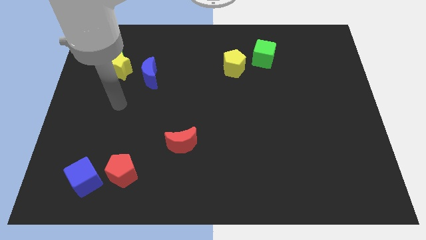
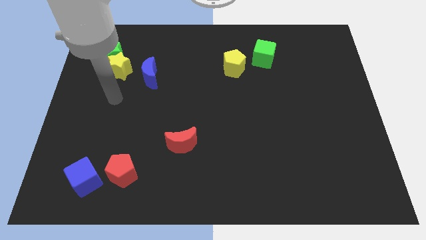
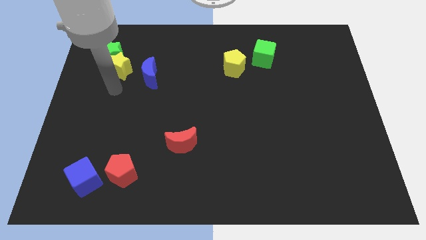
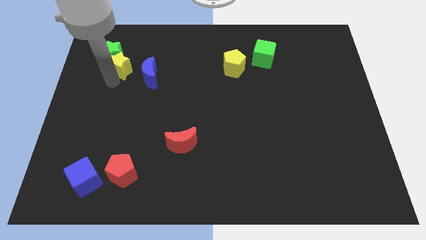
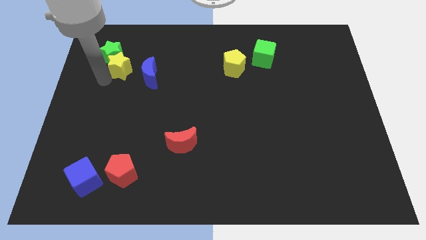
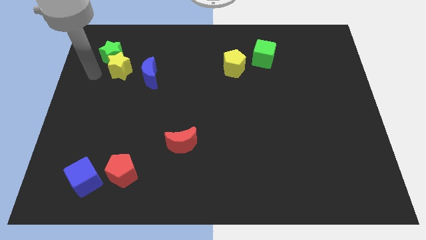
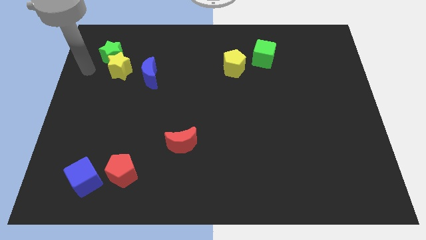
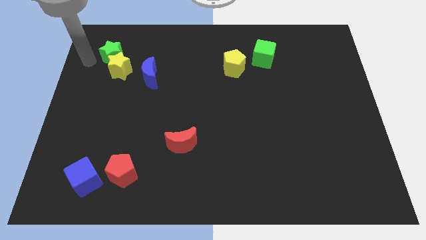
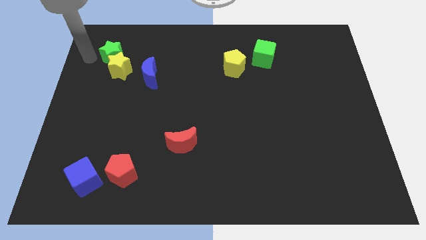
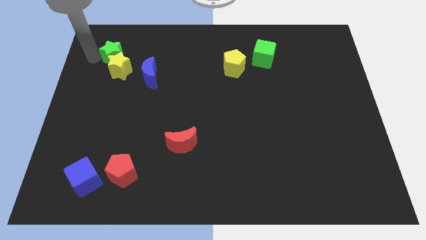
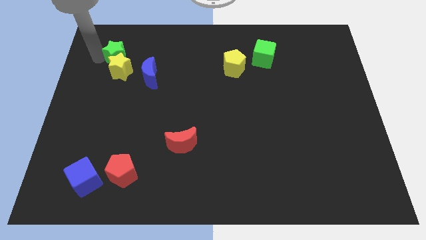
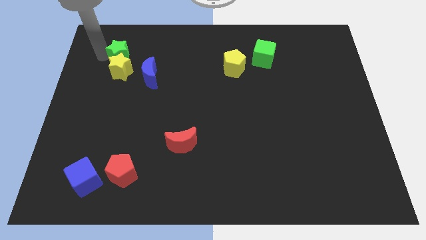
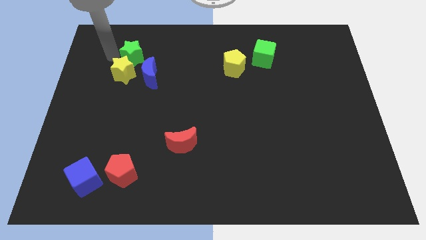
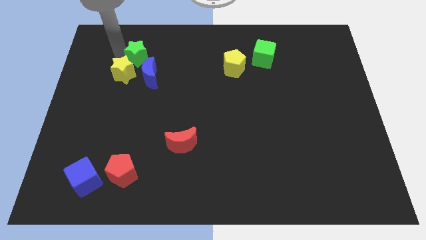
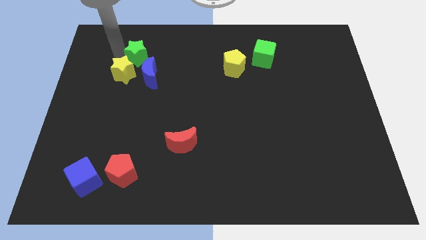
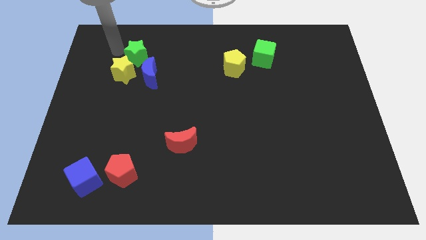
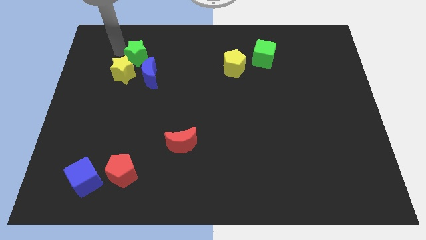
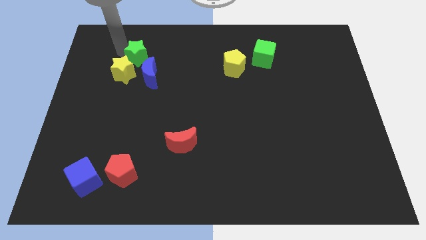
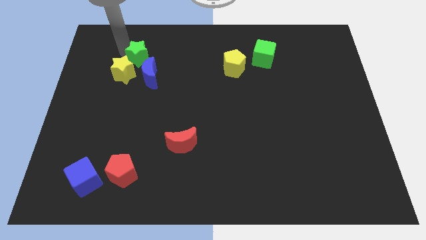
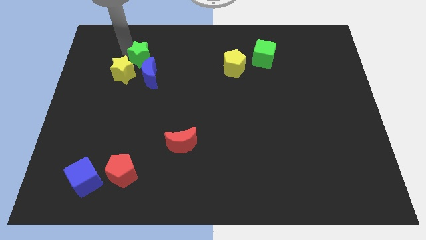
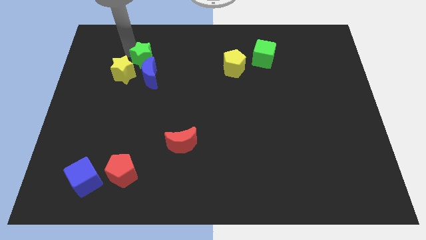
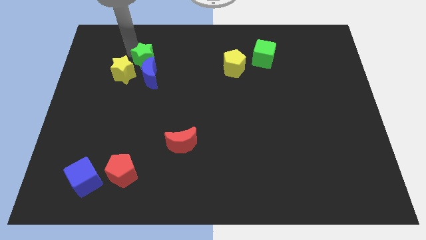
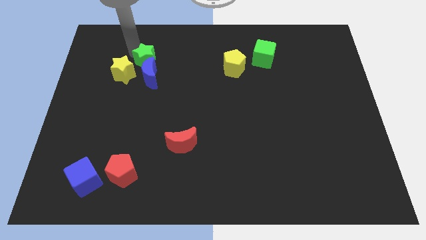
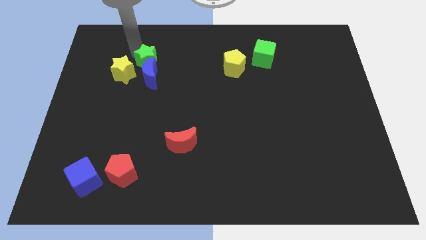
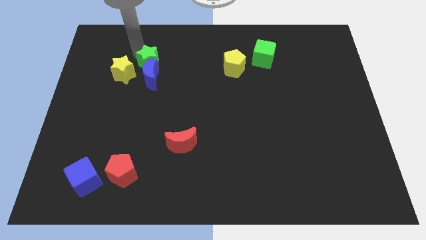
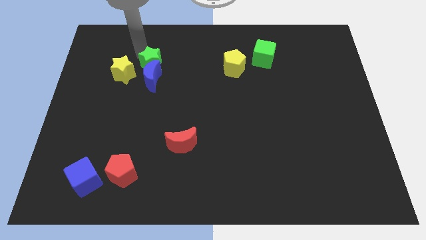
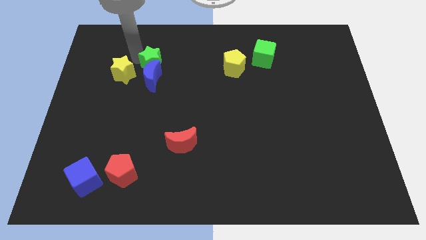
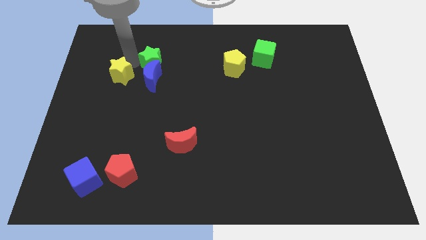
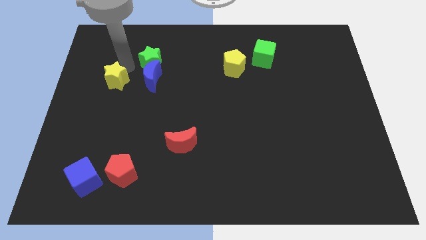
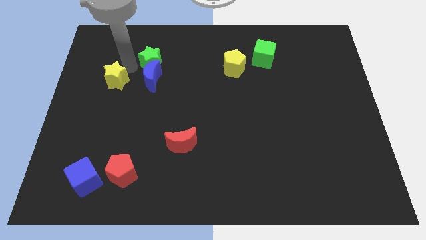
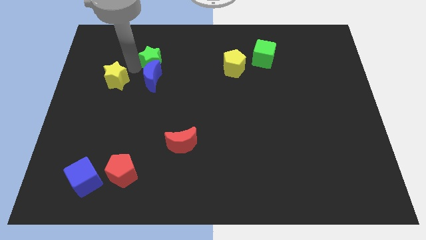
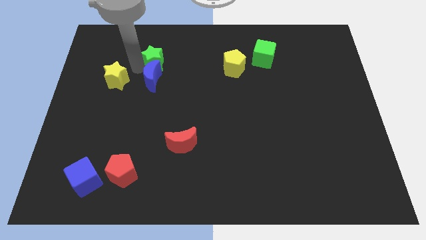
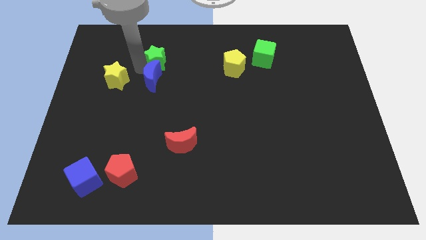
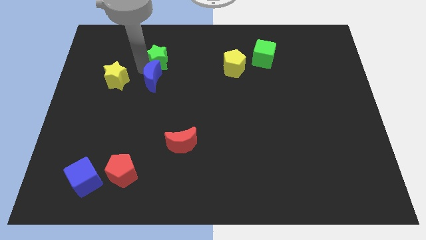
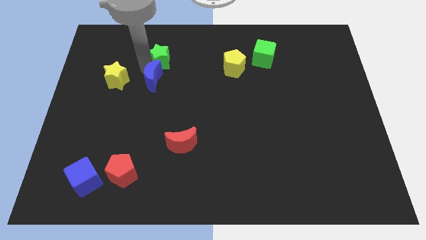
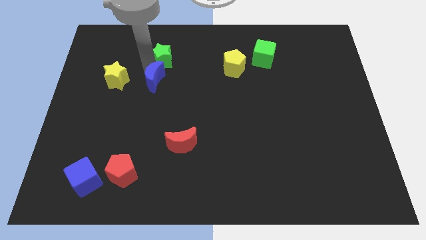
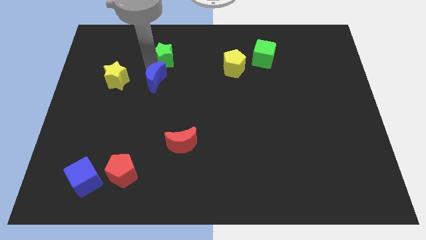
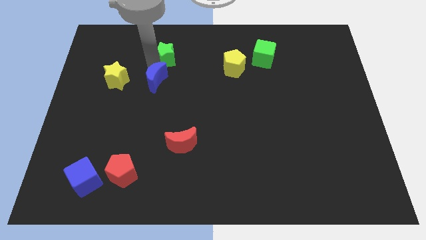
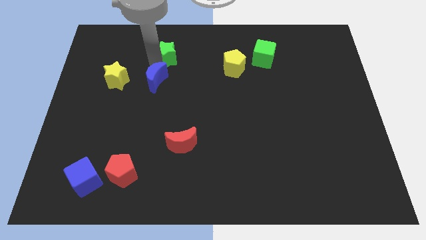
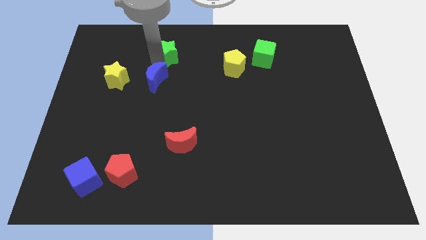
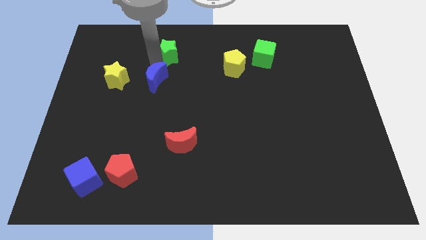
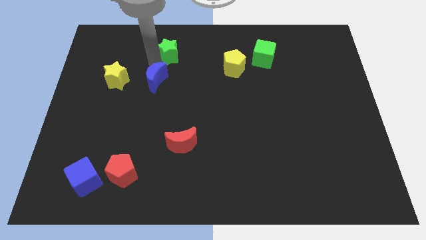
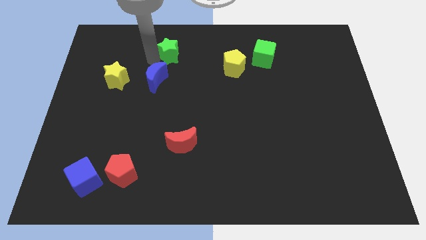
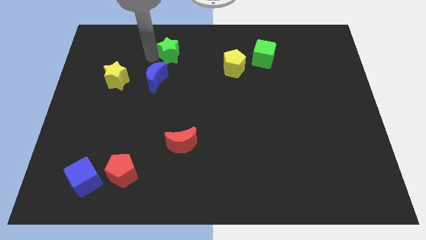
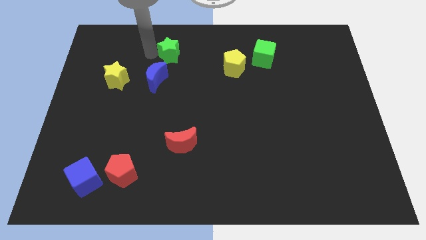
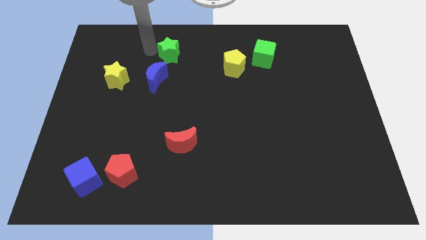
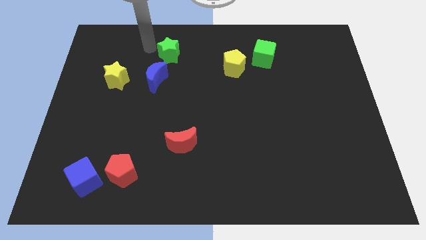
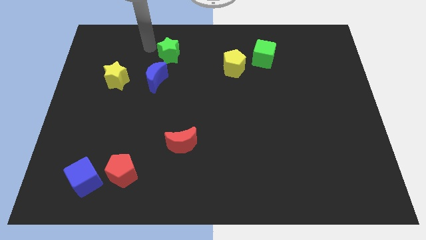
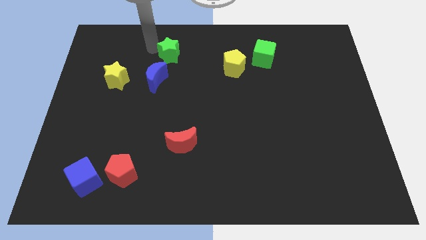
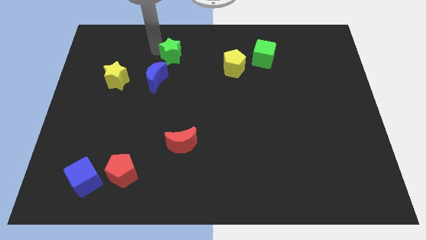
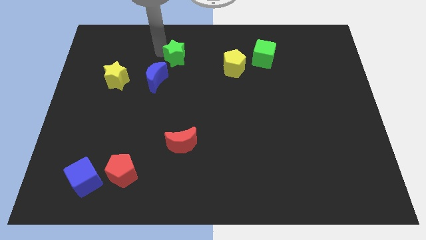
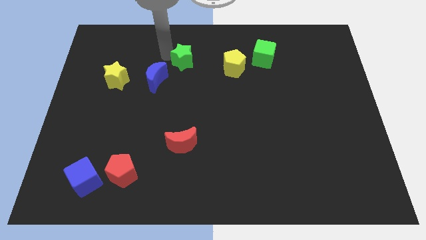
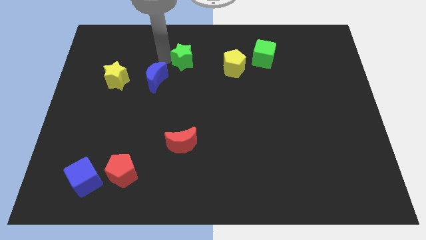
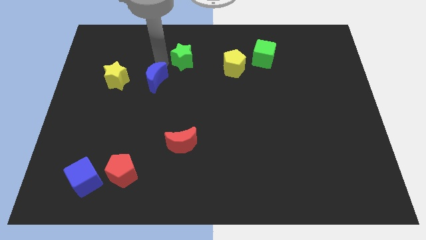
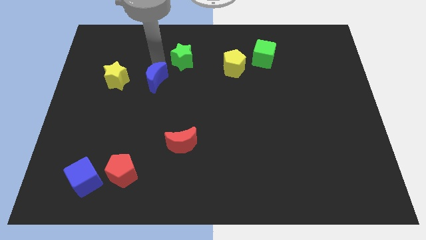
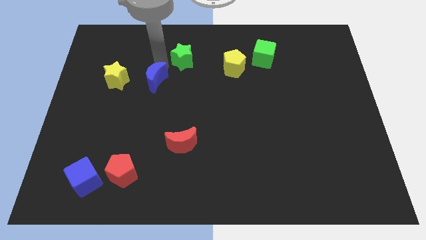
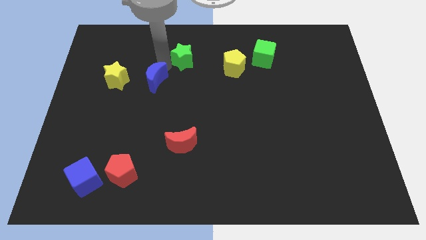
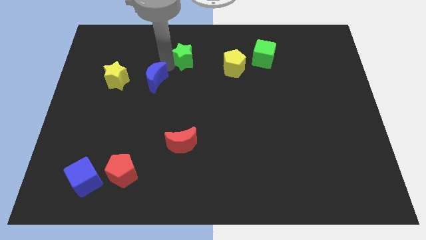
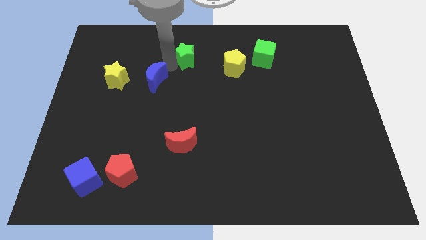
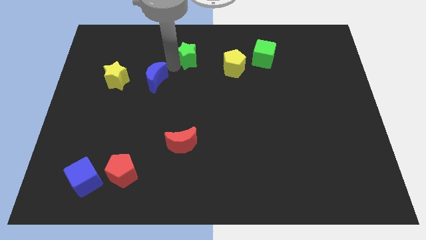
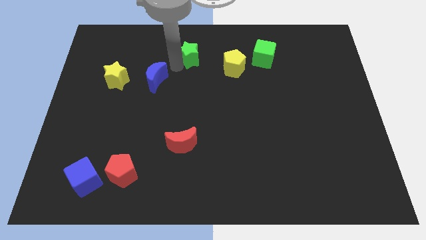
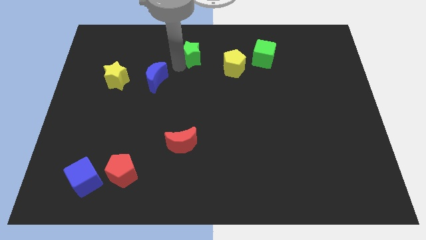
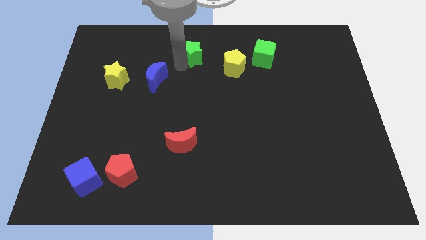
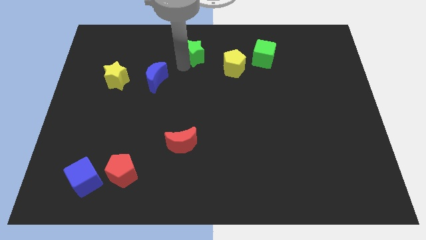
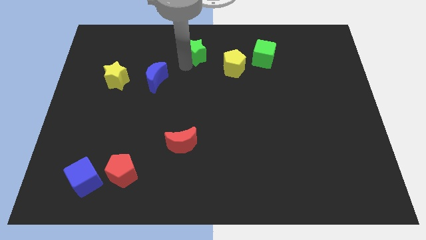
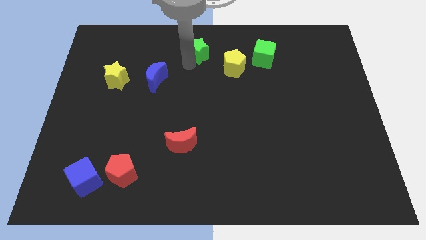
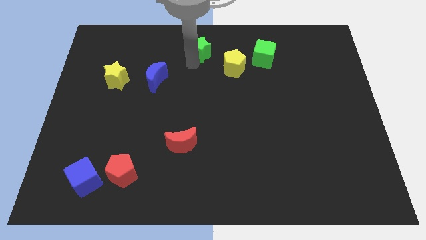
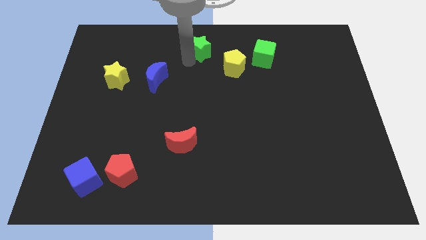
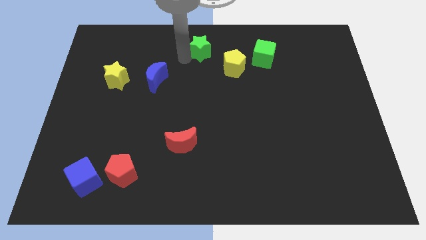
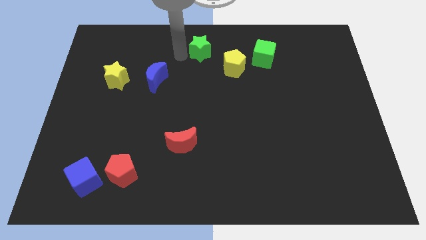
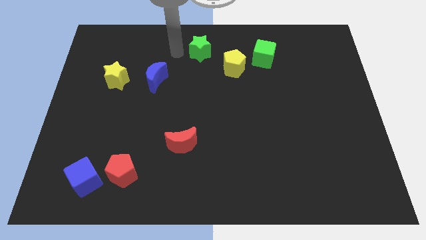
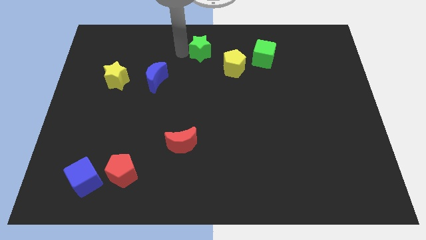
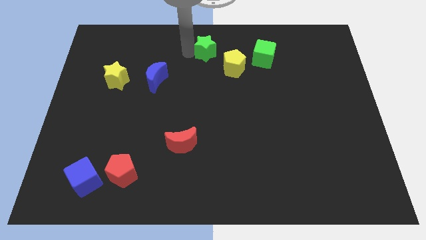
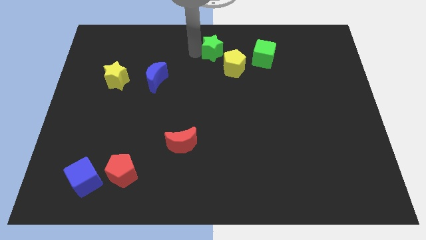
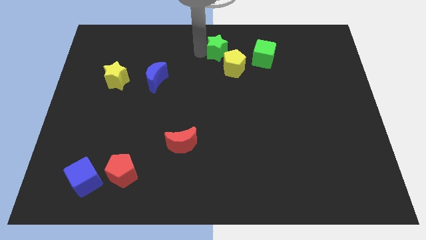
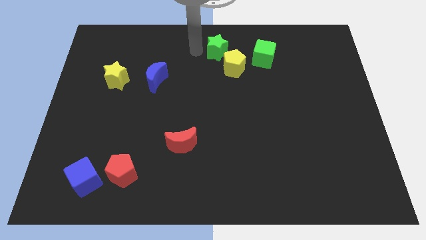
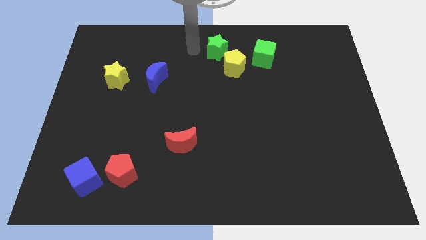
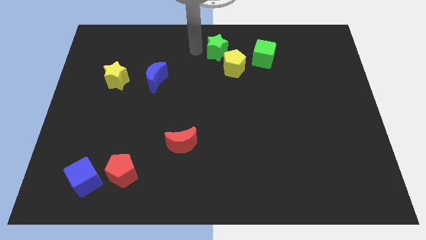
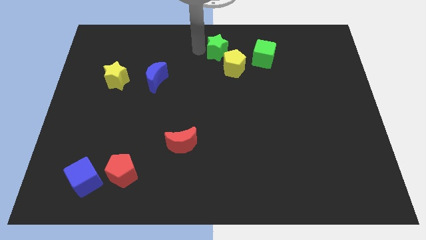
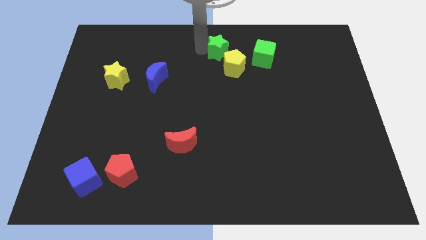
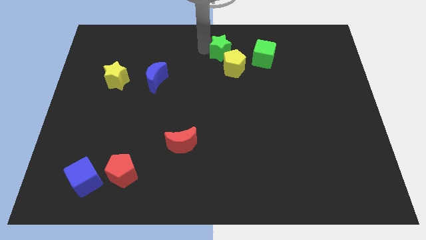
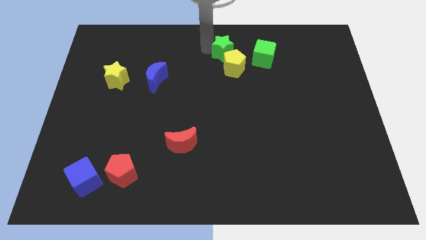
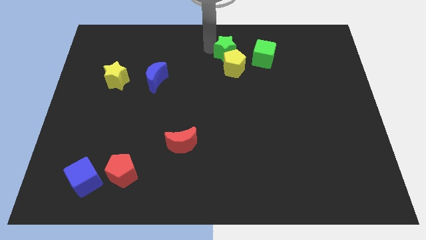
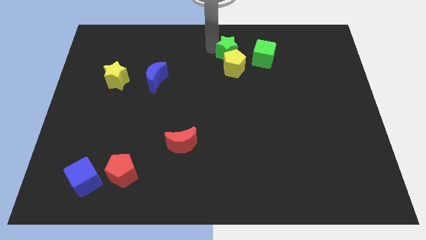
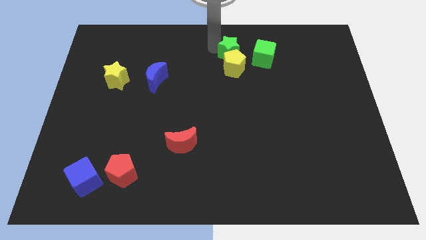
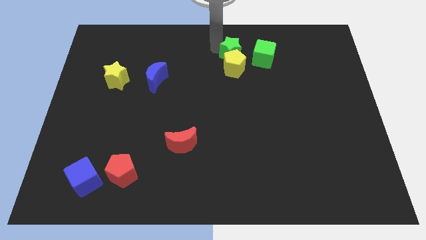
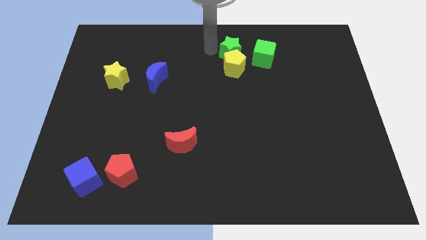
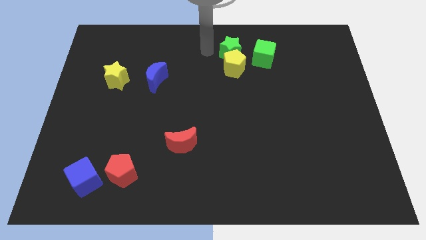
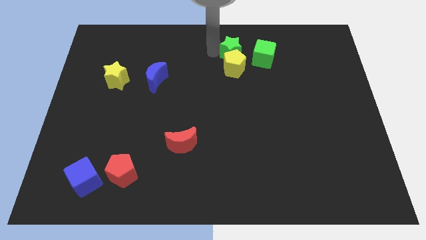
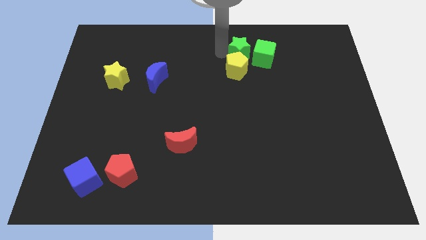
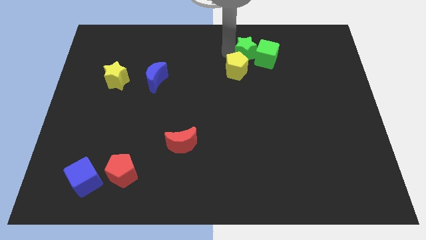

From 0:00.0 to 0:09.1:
move the green star to the green cube
